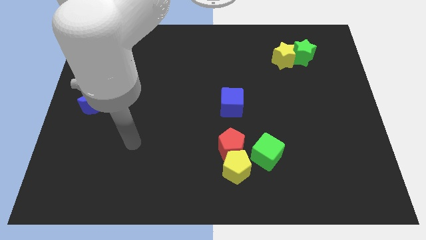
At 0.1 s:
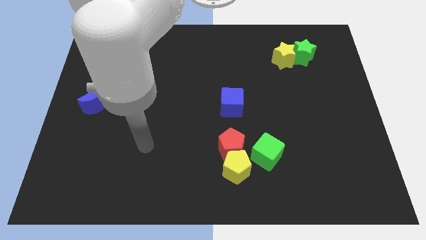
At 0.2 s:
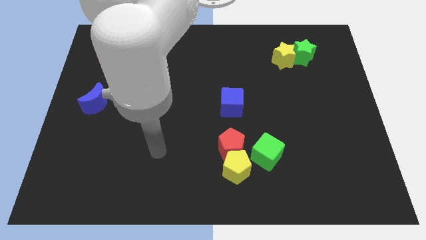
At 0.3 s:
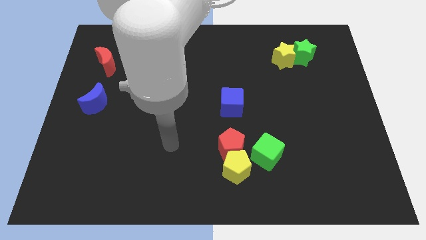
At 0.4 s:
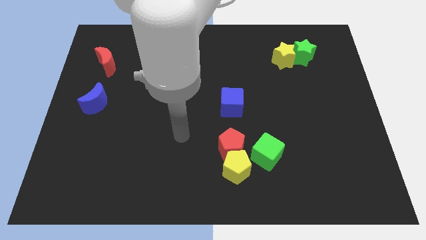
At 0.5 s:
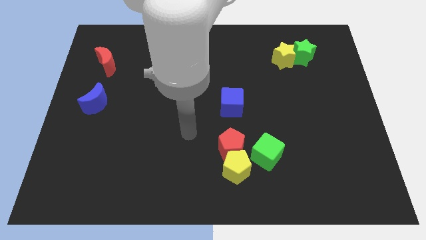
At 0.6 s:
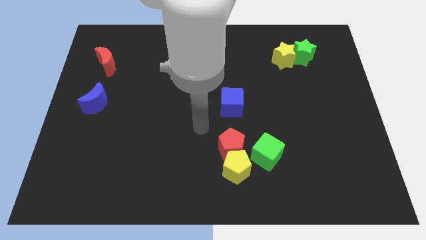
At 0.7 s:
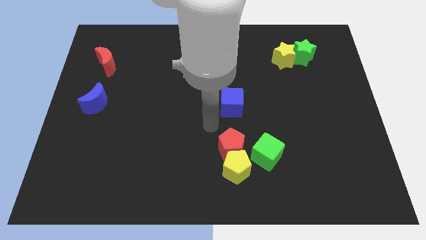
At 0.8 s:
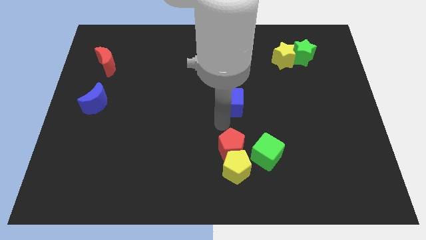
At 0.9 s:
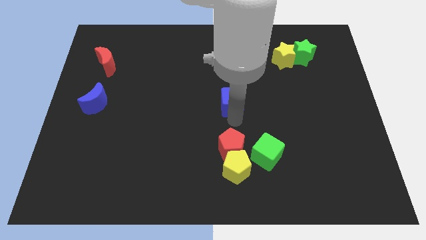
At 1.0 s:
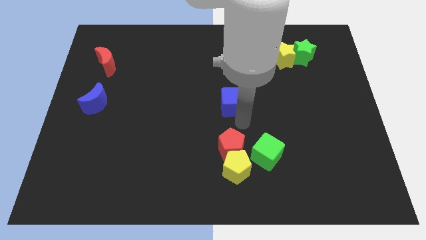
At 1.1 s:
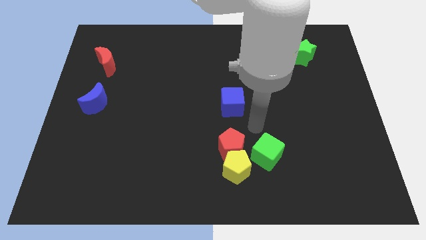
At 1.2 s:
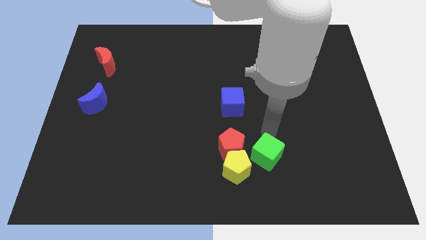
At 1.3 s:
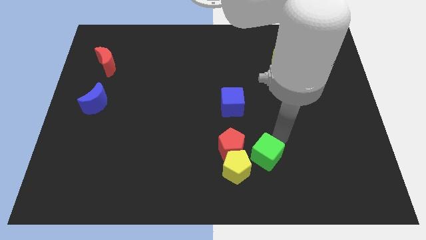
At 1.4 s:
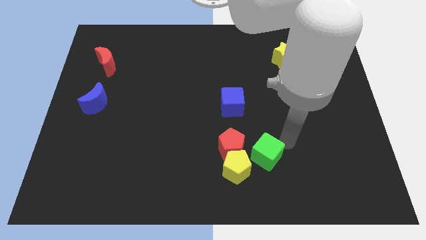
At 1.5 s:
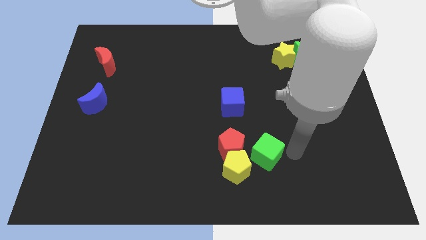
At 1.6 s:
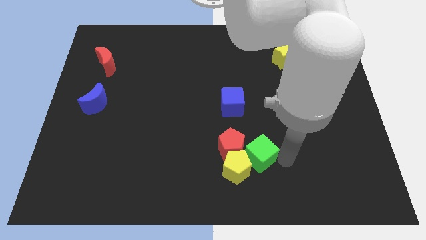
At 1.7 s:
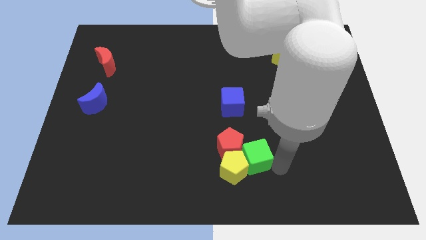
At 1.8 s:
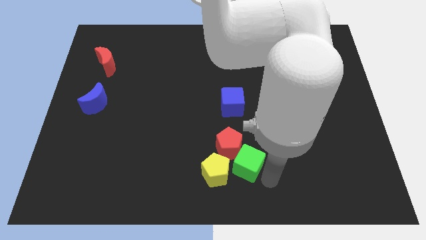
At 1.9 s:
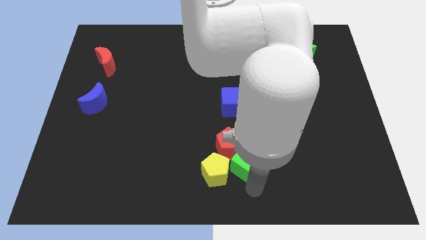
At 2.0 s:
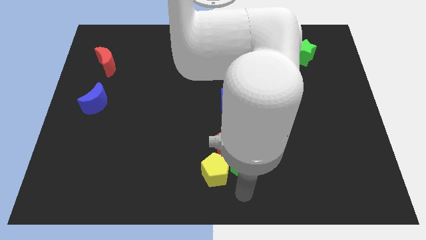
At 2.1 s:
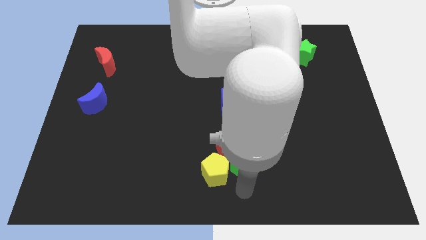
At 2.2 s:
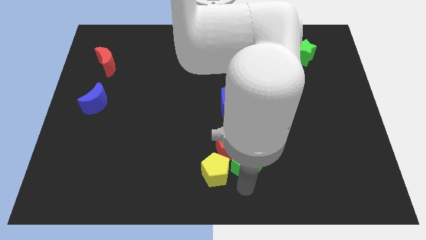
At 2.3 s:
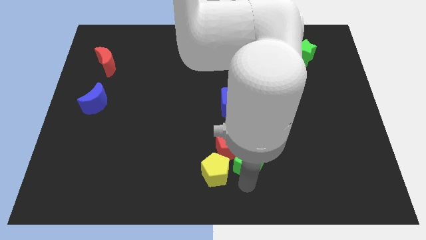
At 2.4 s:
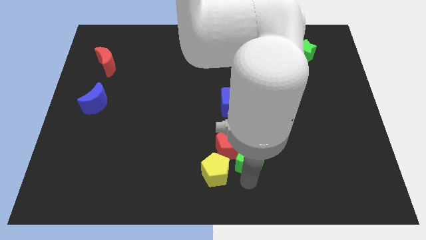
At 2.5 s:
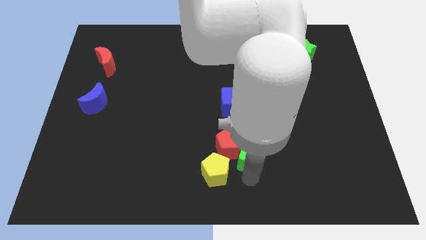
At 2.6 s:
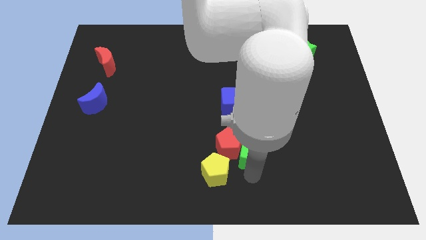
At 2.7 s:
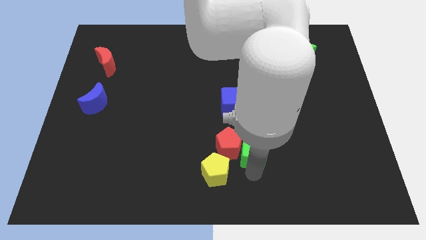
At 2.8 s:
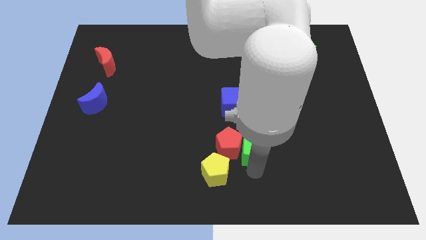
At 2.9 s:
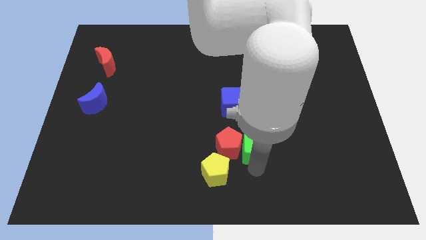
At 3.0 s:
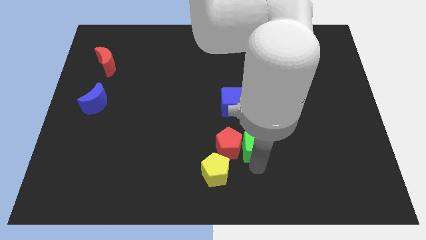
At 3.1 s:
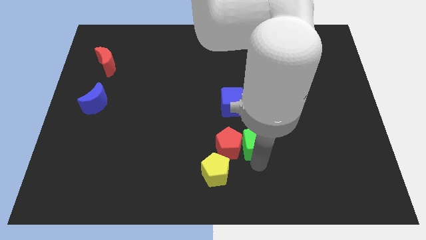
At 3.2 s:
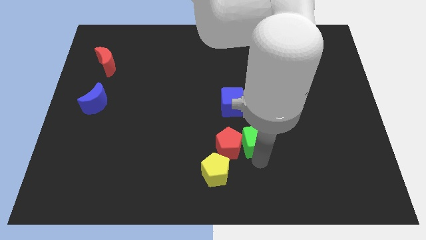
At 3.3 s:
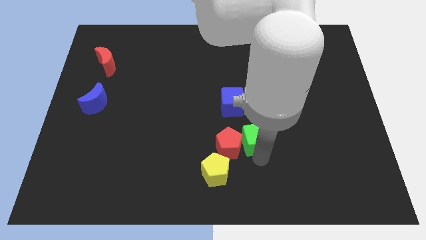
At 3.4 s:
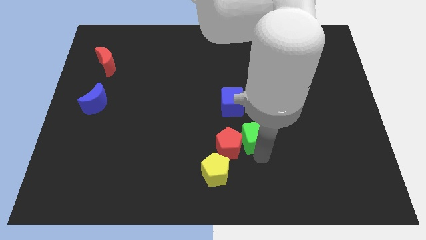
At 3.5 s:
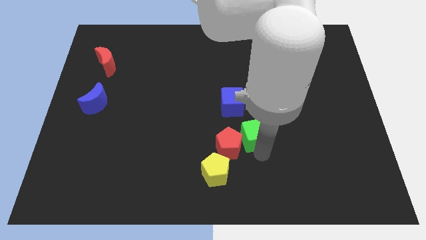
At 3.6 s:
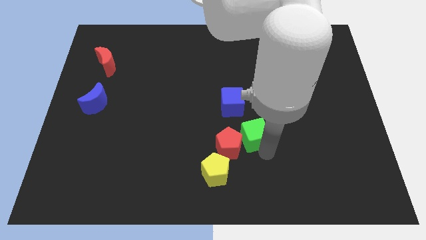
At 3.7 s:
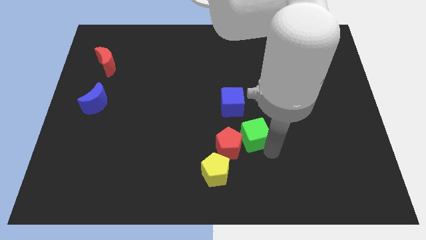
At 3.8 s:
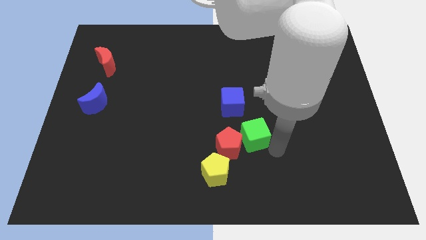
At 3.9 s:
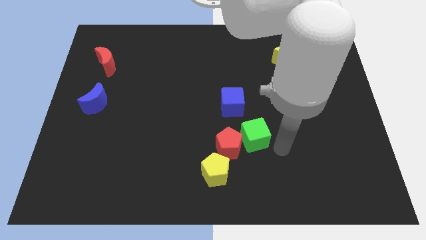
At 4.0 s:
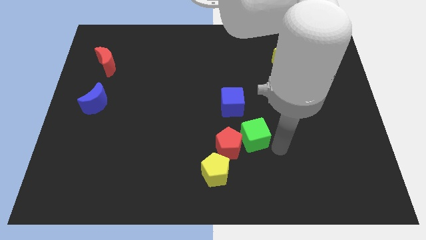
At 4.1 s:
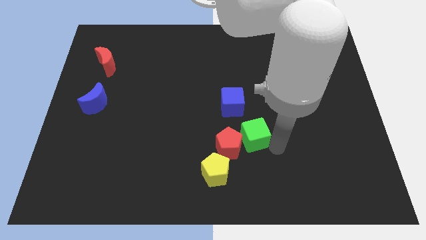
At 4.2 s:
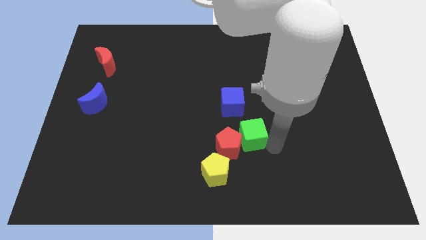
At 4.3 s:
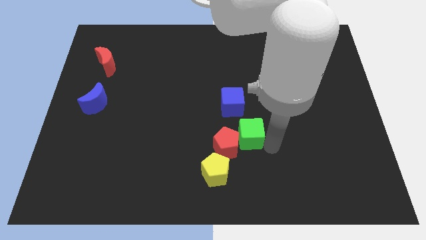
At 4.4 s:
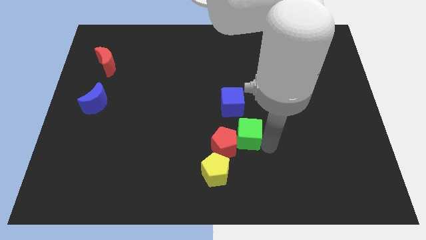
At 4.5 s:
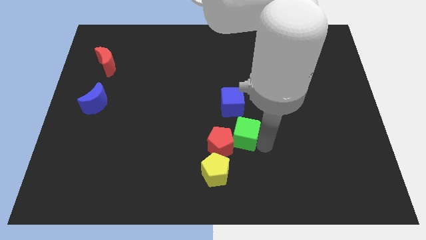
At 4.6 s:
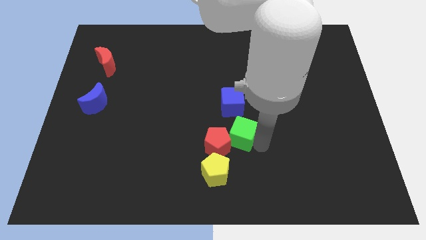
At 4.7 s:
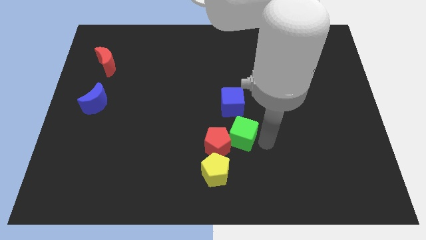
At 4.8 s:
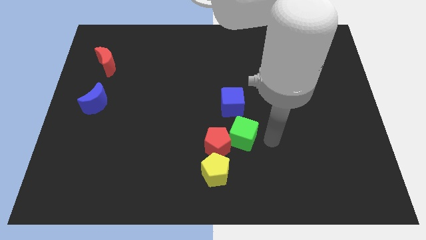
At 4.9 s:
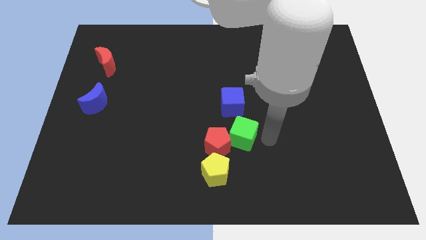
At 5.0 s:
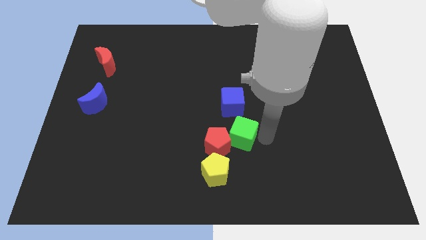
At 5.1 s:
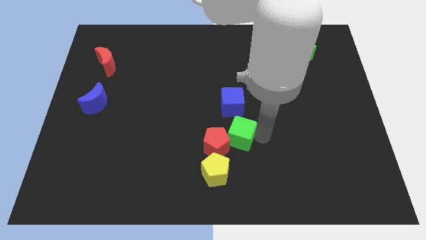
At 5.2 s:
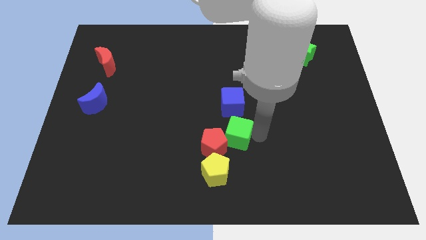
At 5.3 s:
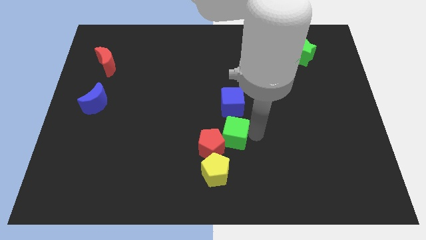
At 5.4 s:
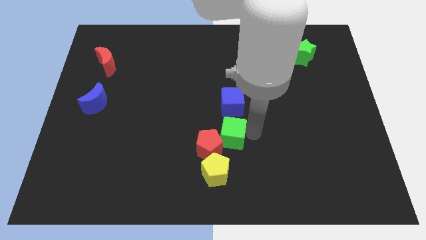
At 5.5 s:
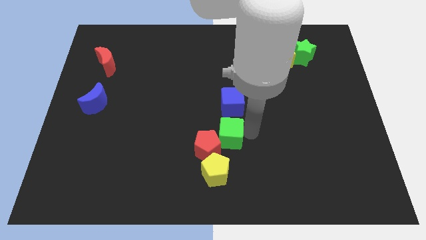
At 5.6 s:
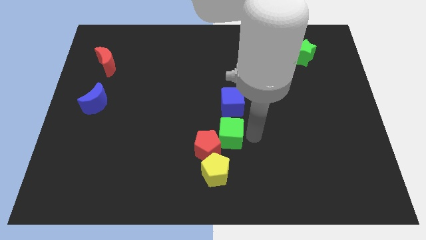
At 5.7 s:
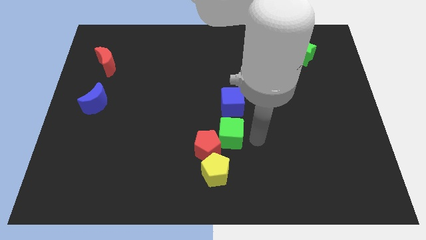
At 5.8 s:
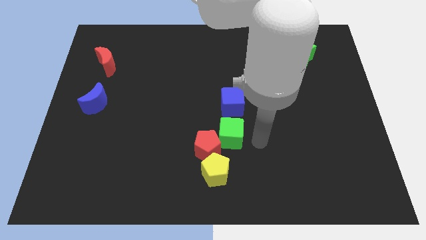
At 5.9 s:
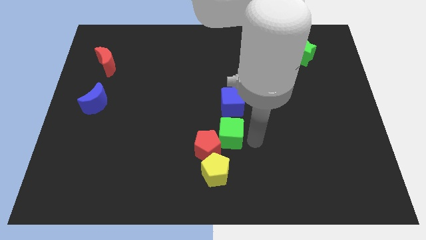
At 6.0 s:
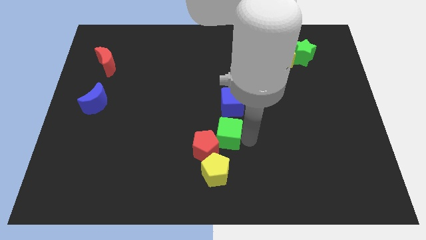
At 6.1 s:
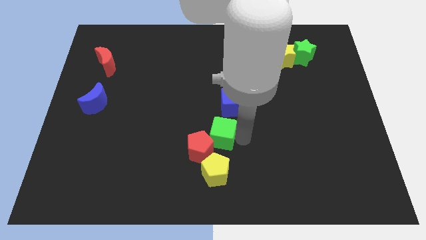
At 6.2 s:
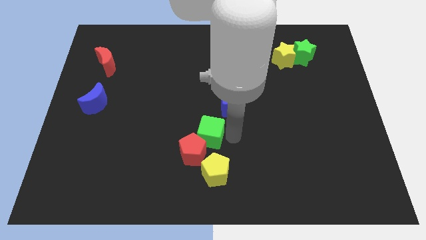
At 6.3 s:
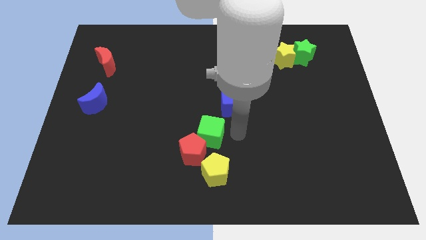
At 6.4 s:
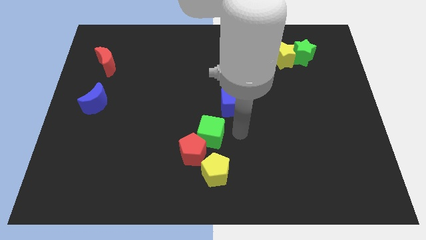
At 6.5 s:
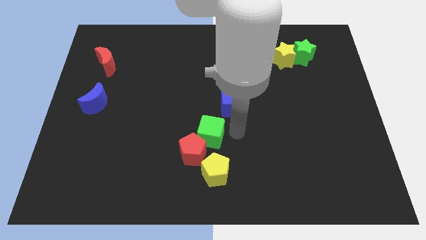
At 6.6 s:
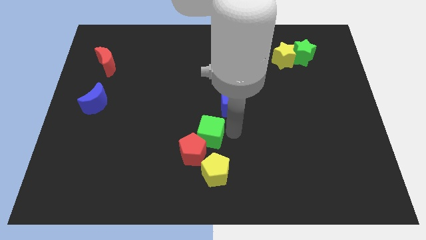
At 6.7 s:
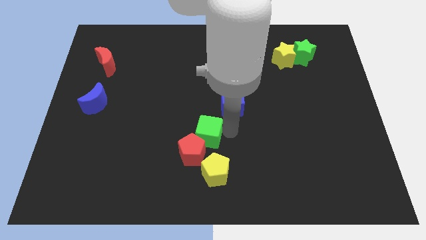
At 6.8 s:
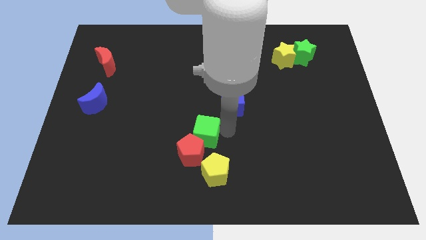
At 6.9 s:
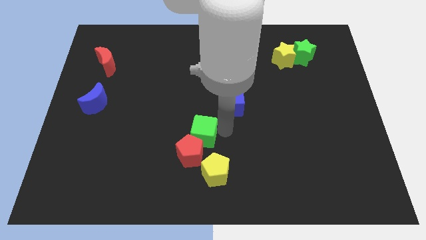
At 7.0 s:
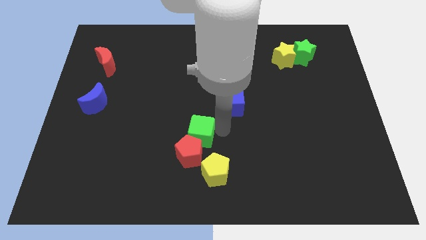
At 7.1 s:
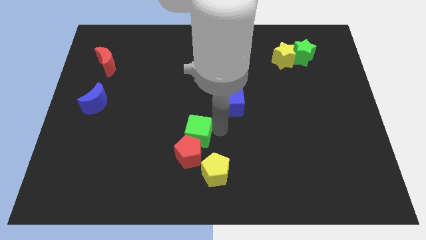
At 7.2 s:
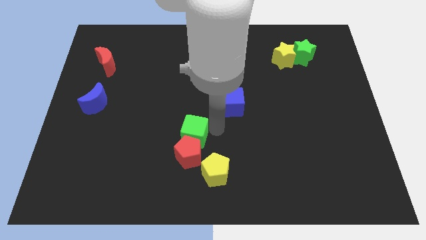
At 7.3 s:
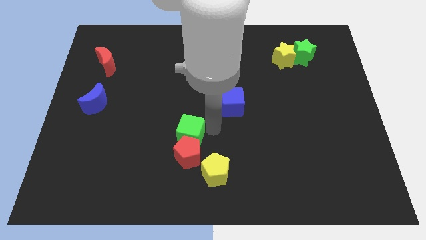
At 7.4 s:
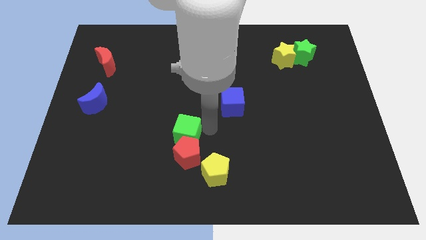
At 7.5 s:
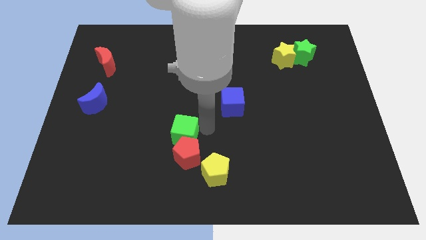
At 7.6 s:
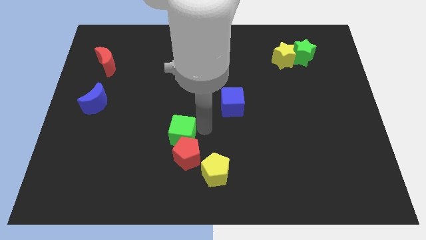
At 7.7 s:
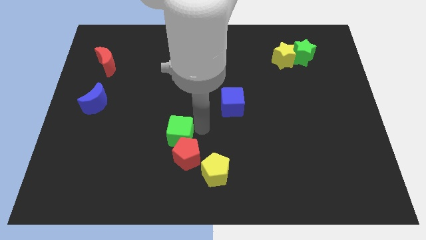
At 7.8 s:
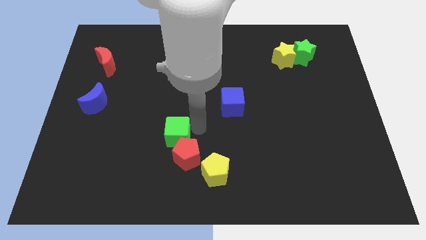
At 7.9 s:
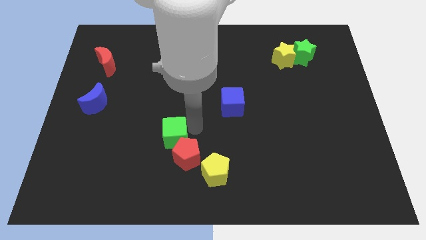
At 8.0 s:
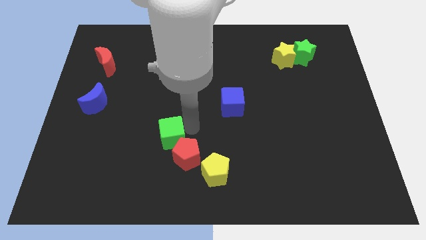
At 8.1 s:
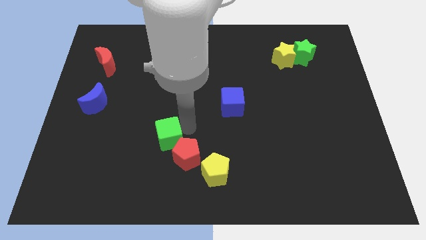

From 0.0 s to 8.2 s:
move the green cube left
